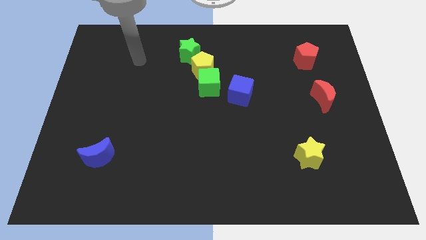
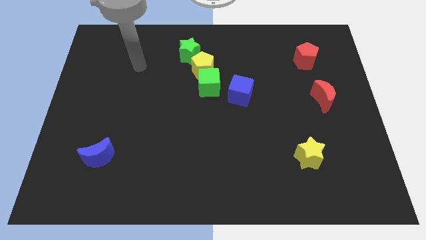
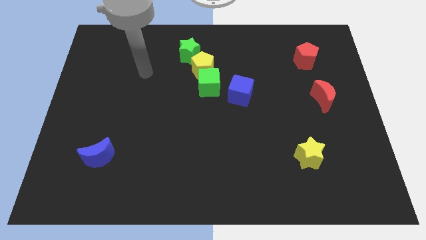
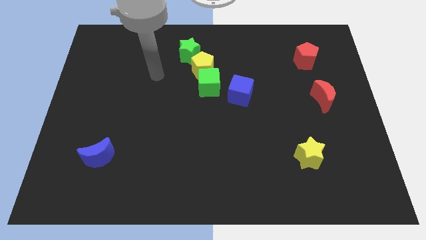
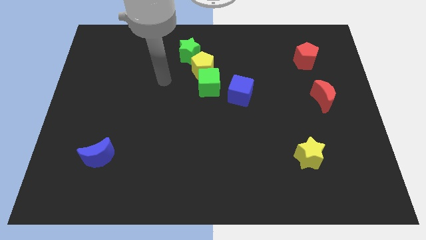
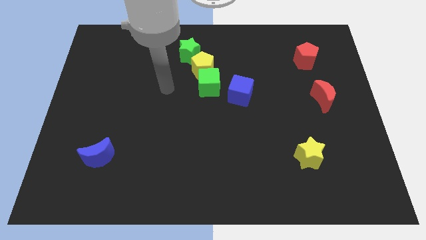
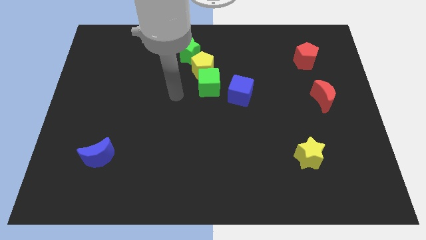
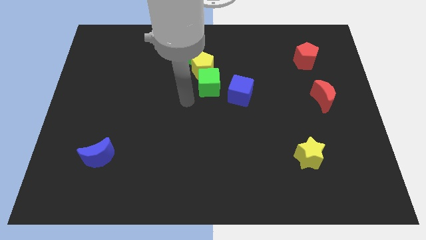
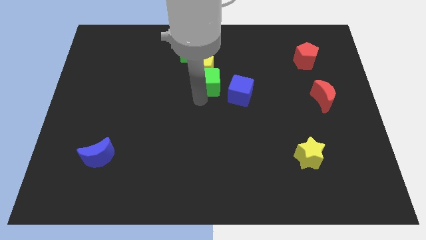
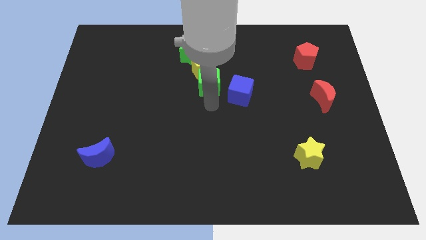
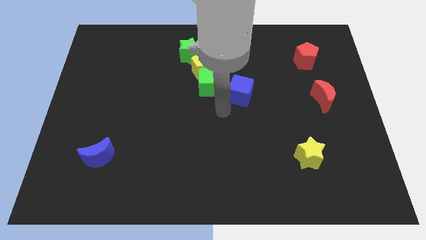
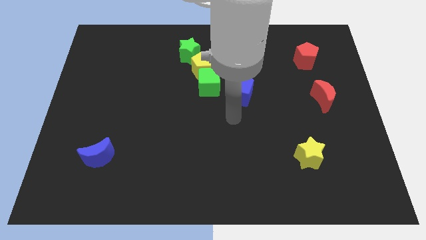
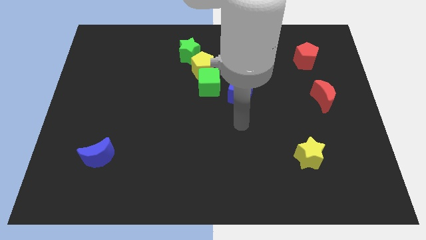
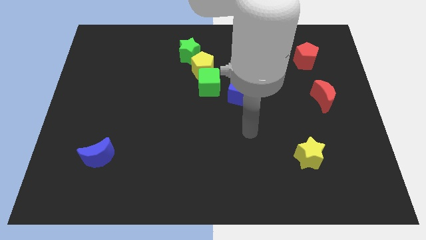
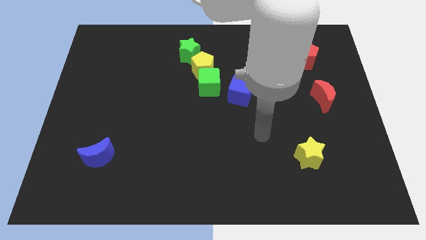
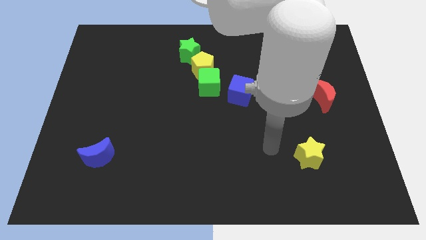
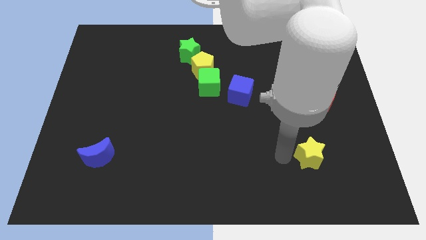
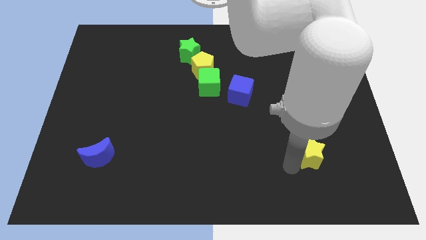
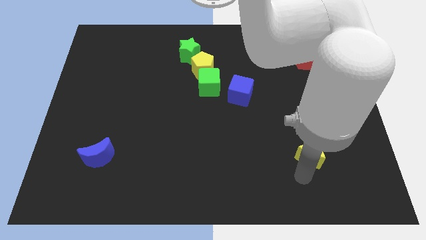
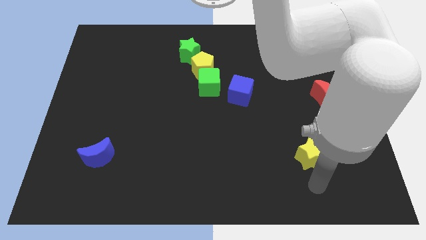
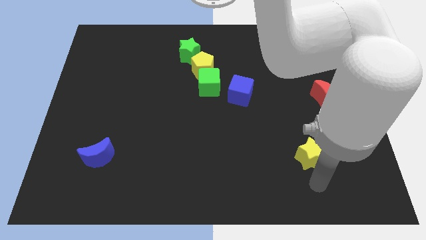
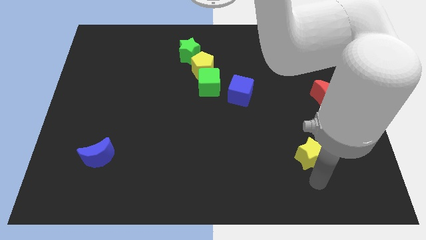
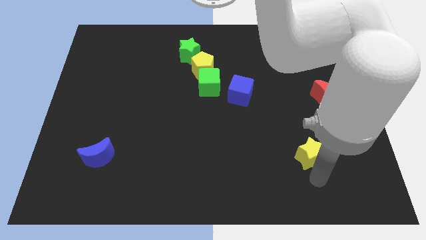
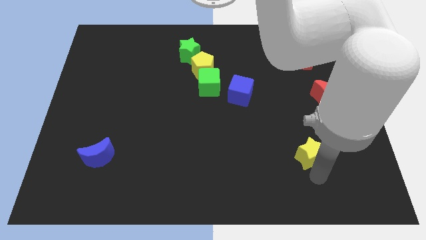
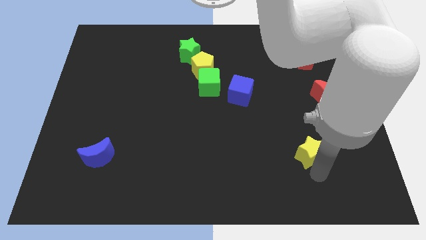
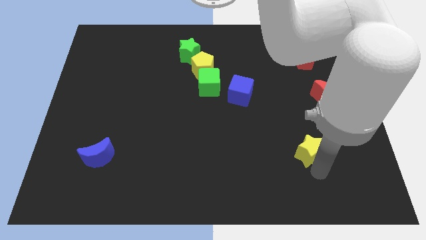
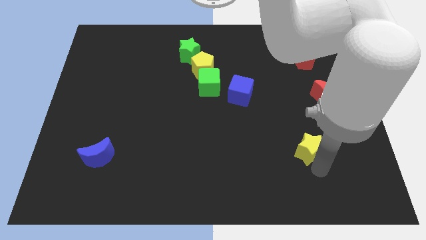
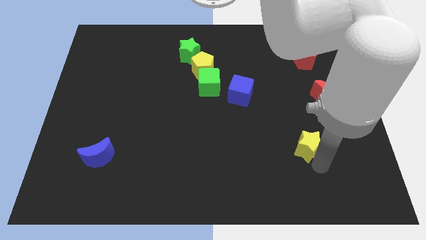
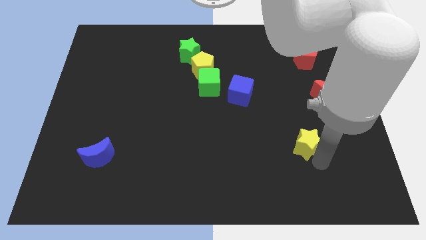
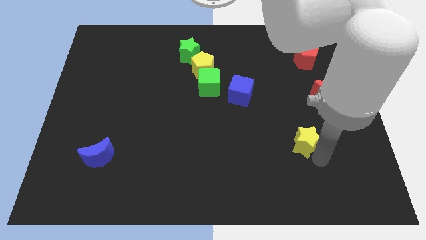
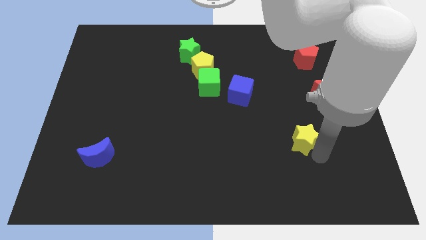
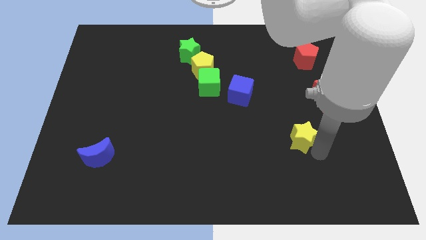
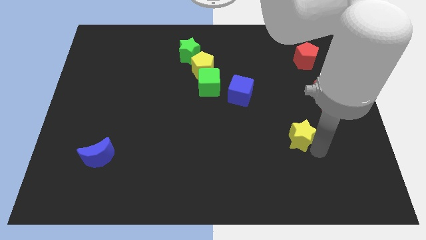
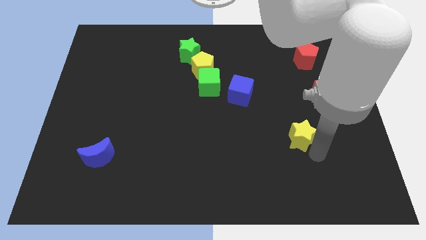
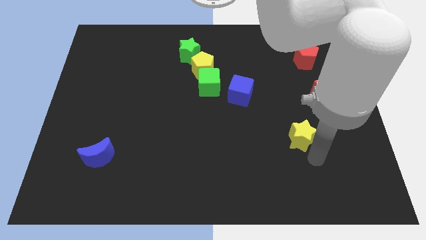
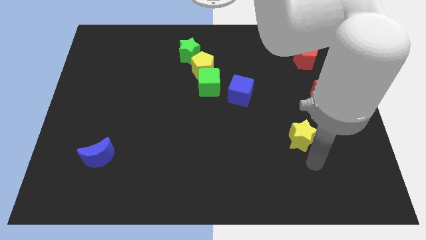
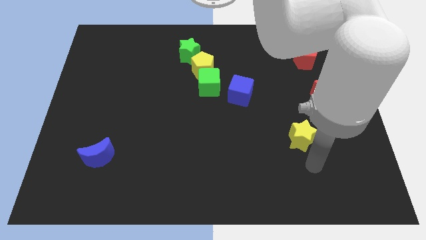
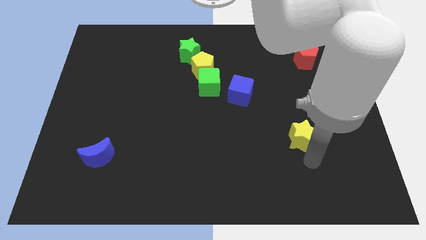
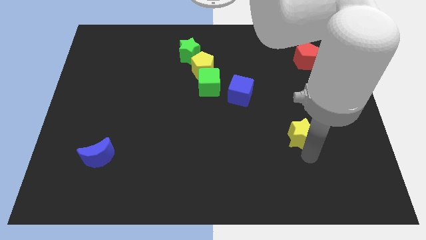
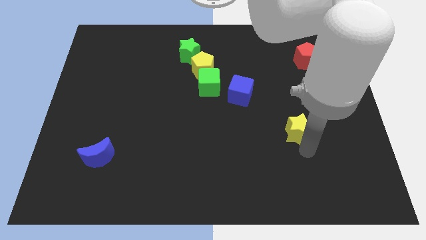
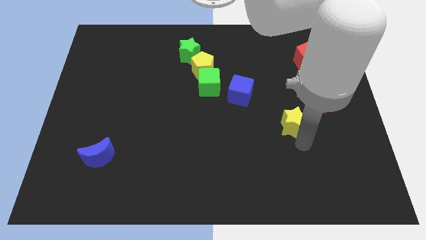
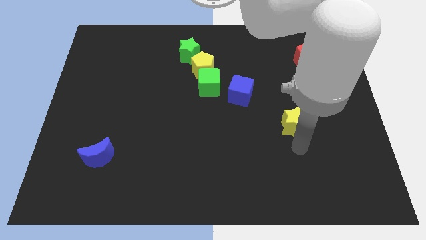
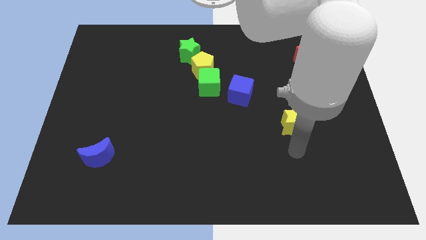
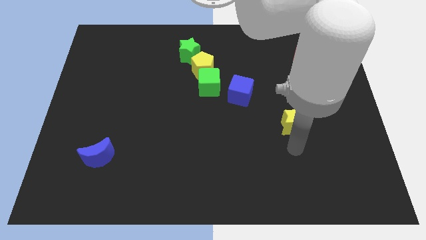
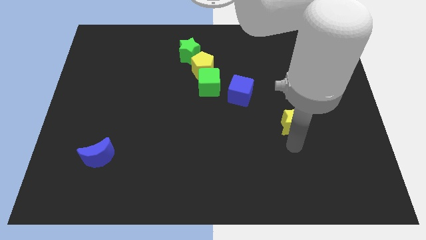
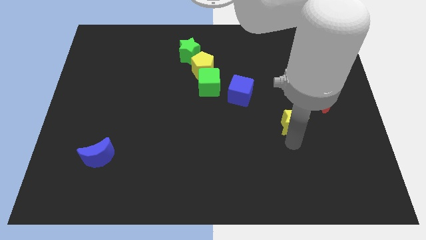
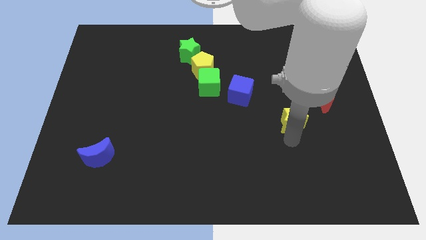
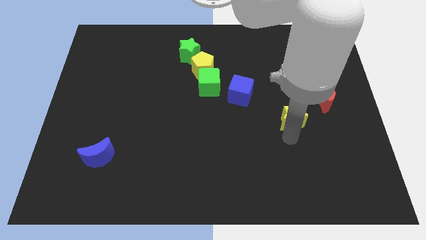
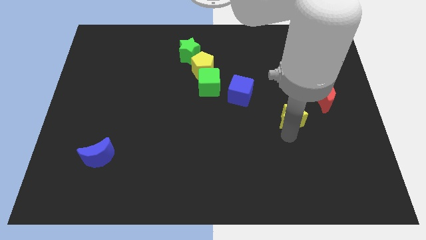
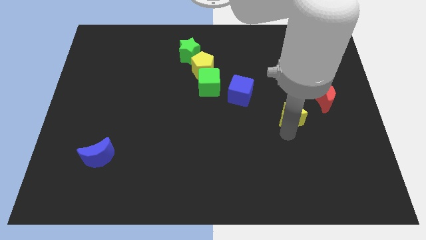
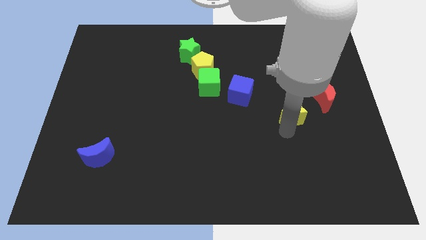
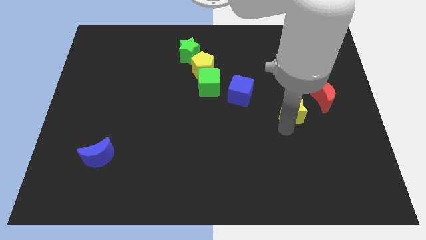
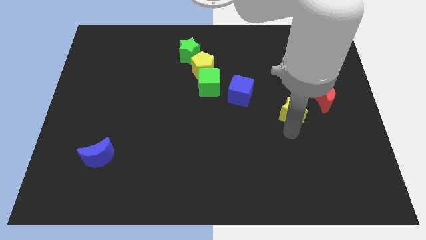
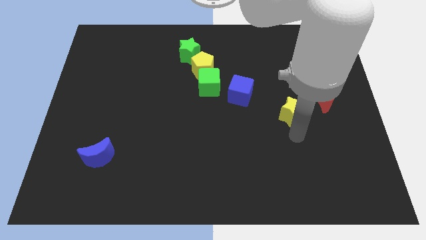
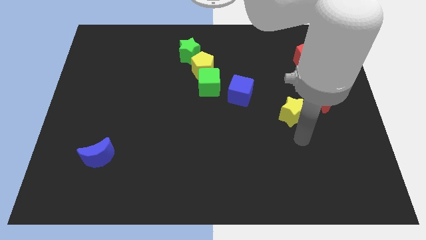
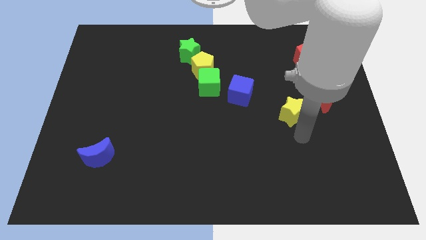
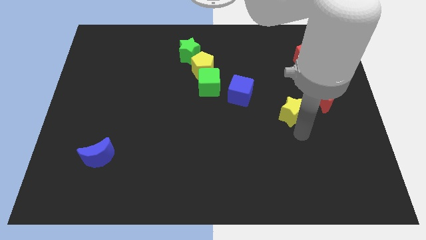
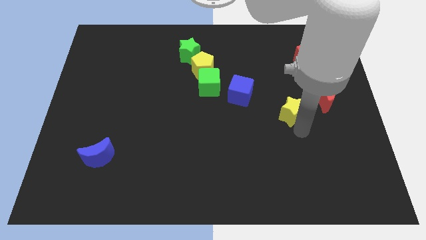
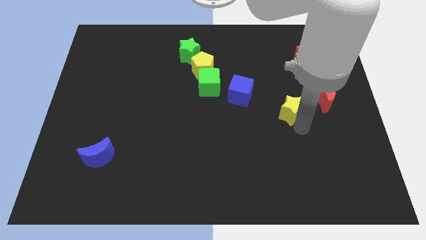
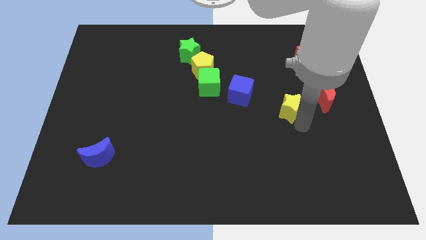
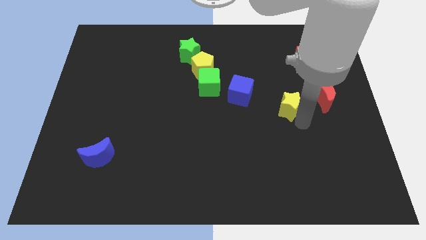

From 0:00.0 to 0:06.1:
put the yellow star to the right of the blue cube
